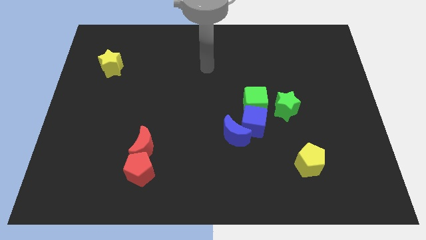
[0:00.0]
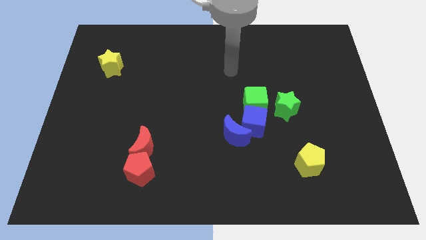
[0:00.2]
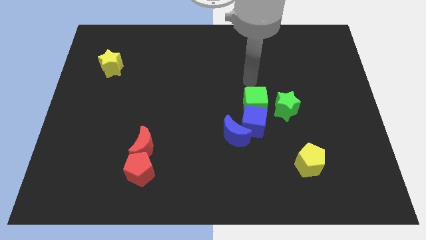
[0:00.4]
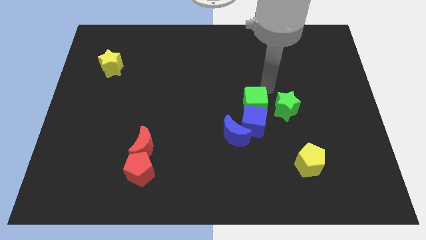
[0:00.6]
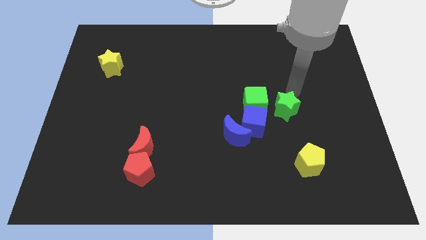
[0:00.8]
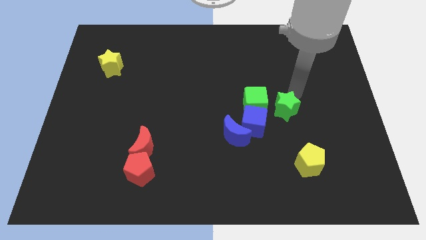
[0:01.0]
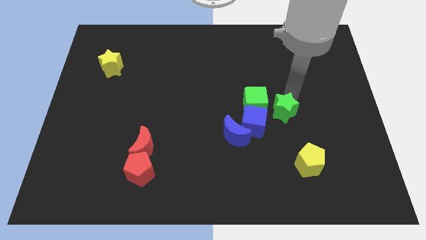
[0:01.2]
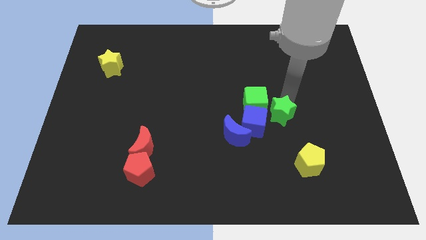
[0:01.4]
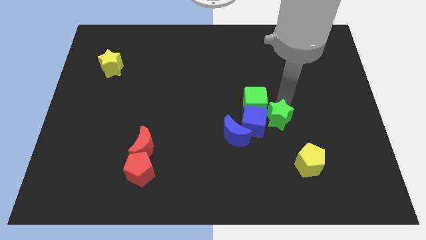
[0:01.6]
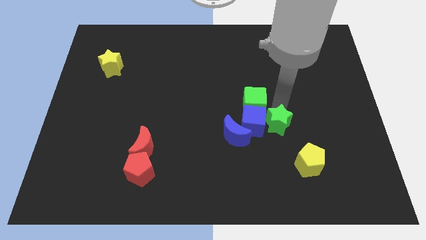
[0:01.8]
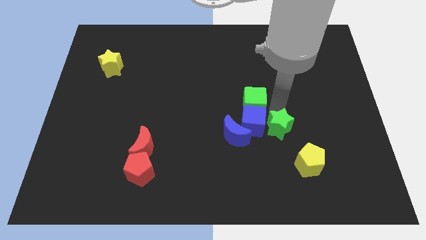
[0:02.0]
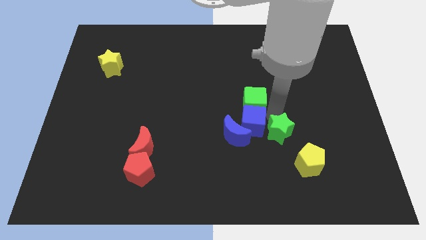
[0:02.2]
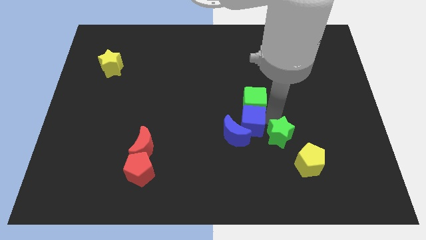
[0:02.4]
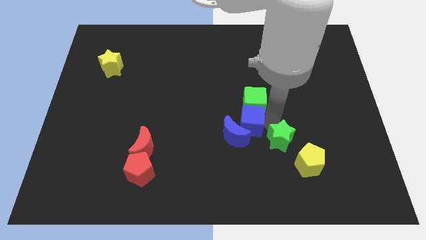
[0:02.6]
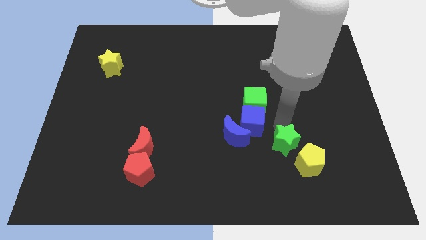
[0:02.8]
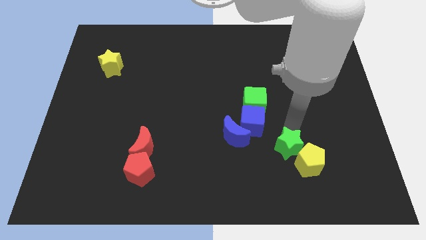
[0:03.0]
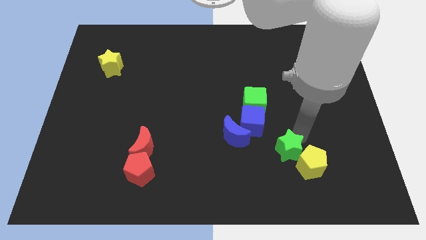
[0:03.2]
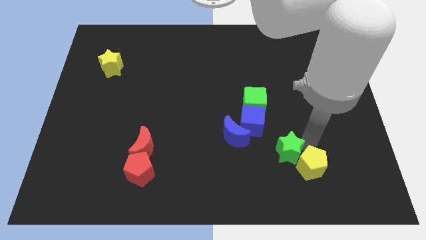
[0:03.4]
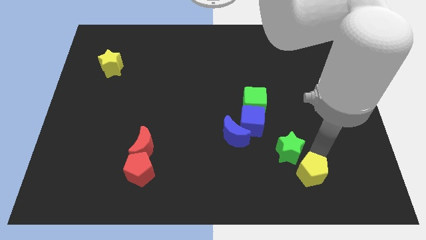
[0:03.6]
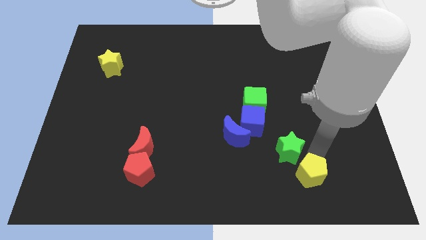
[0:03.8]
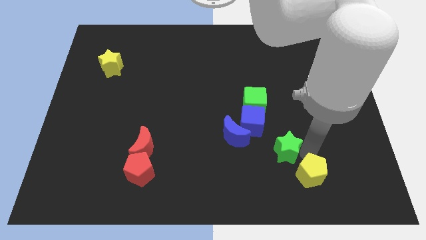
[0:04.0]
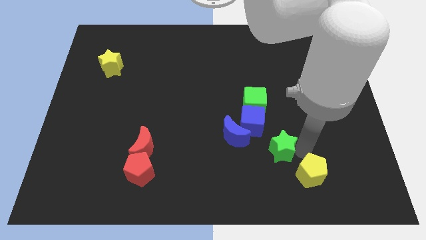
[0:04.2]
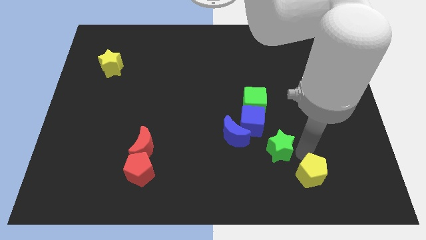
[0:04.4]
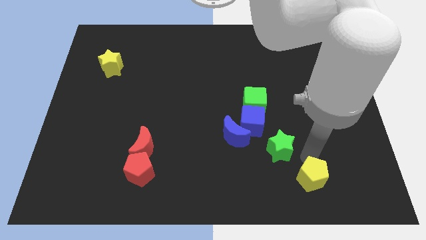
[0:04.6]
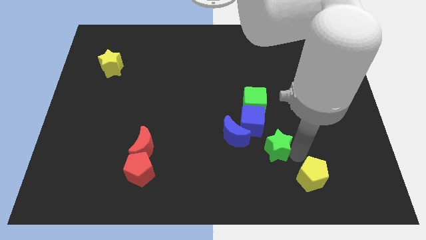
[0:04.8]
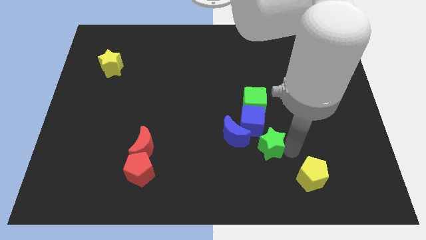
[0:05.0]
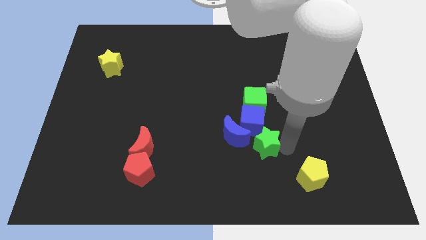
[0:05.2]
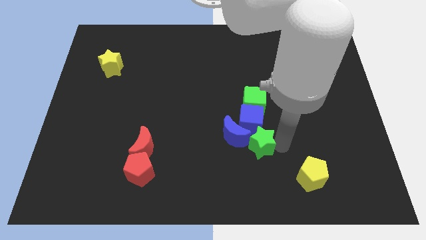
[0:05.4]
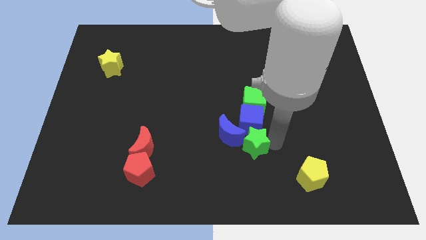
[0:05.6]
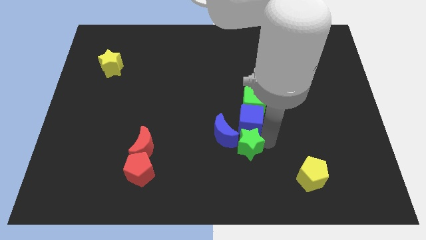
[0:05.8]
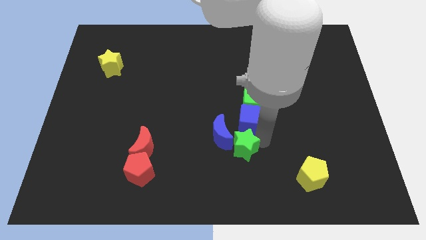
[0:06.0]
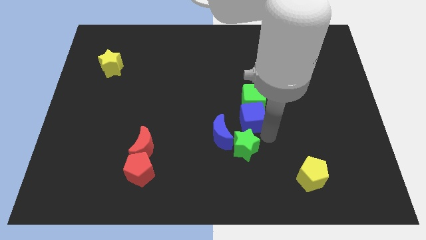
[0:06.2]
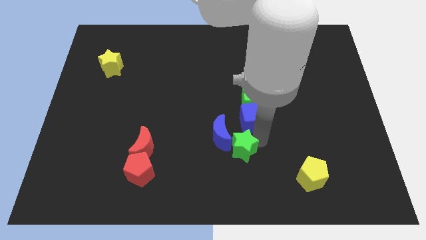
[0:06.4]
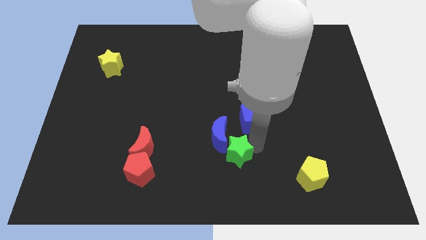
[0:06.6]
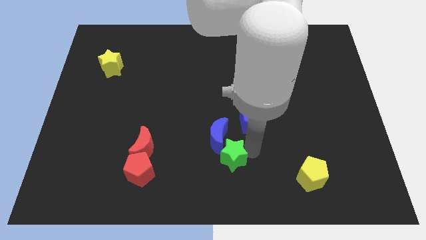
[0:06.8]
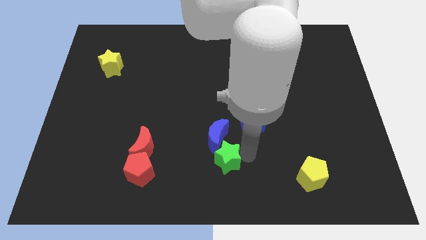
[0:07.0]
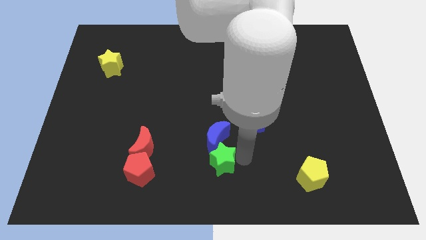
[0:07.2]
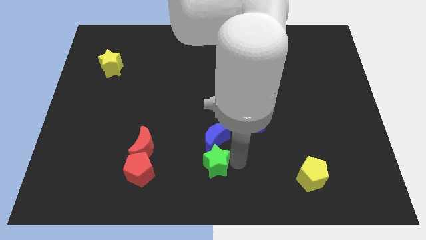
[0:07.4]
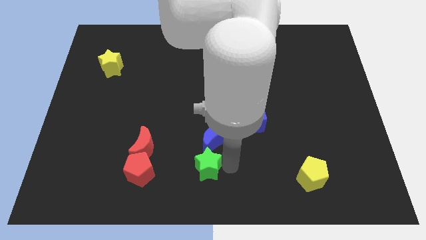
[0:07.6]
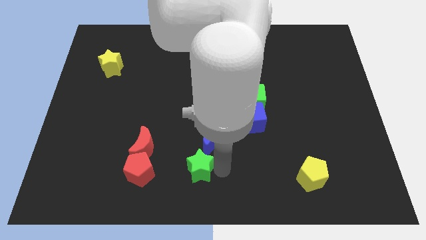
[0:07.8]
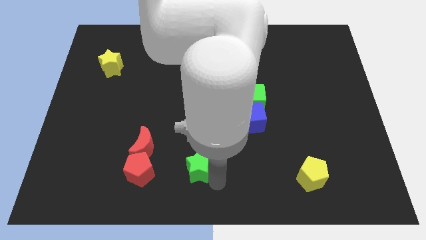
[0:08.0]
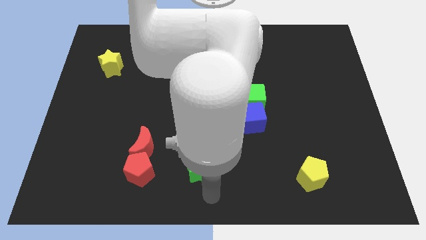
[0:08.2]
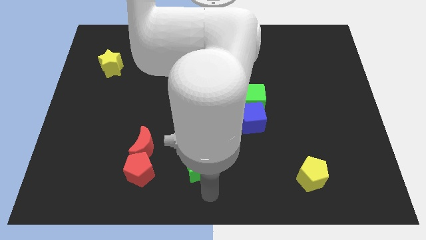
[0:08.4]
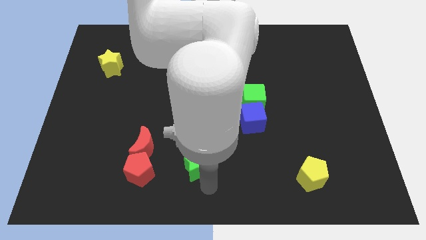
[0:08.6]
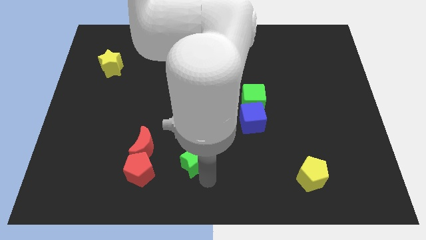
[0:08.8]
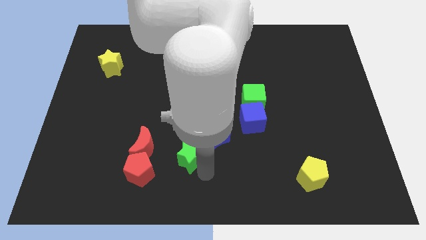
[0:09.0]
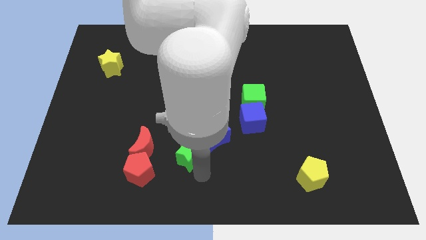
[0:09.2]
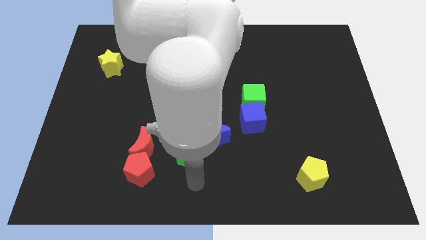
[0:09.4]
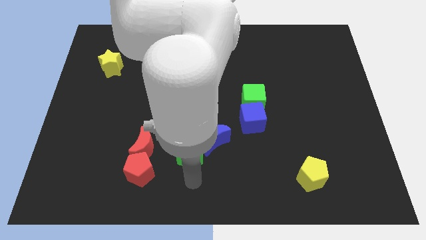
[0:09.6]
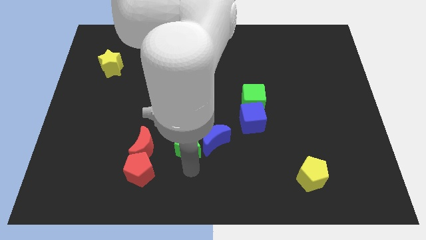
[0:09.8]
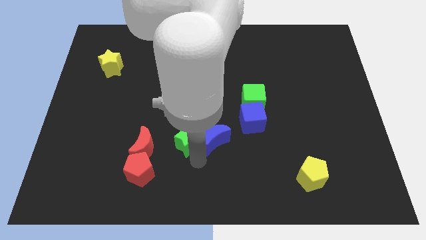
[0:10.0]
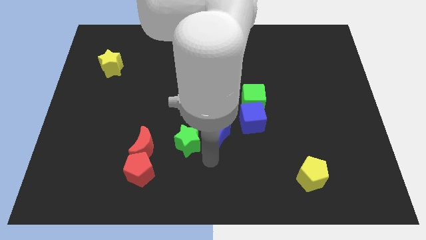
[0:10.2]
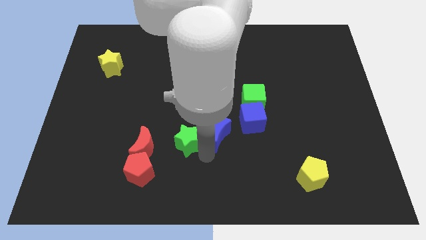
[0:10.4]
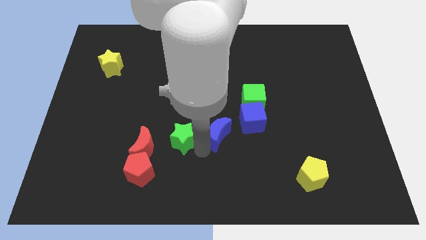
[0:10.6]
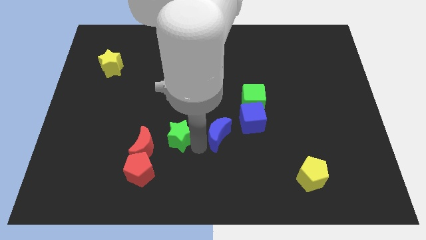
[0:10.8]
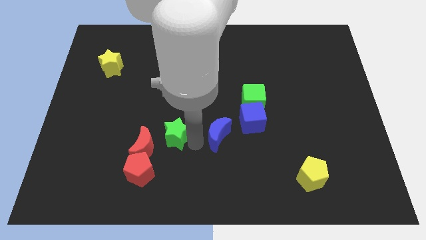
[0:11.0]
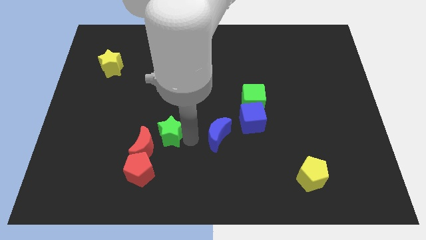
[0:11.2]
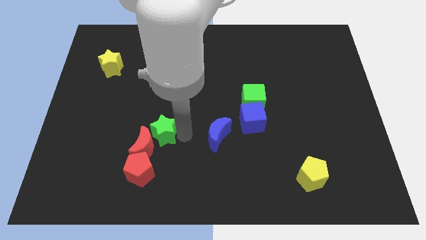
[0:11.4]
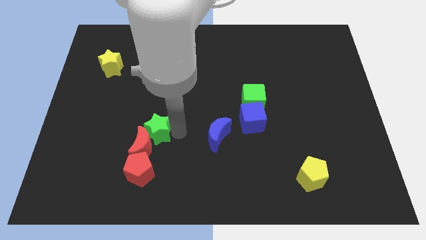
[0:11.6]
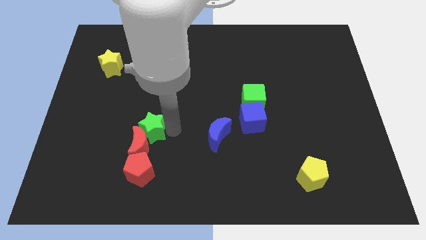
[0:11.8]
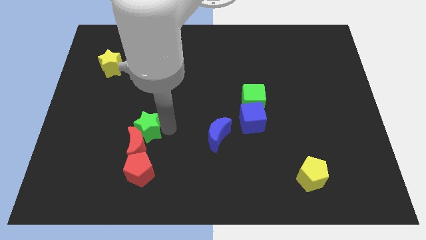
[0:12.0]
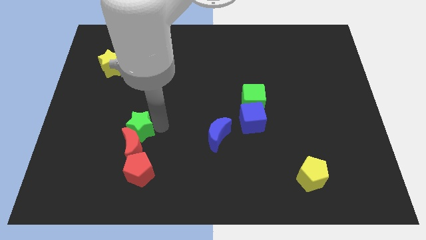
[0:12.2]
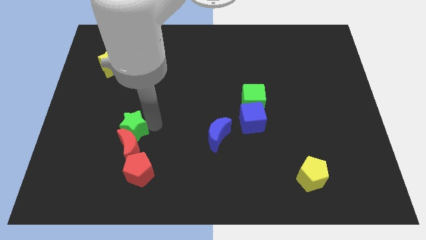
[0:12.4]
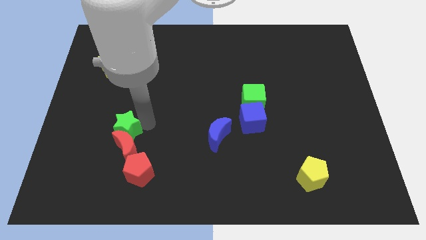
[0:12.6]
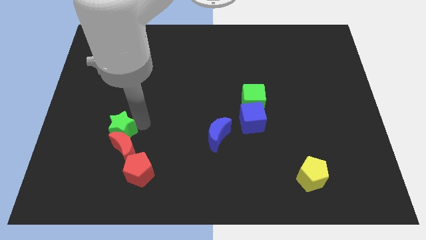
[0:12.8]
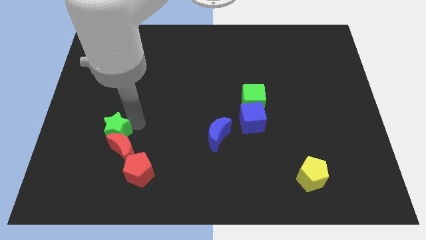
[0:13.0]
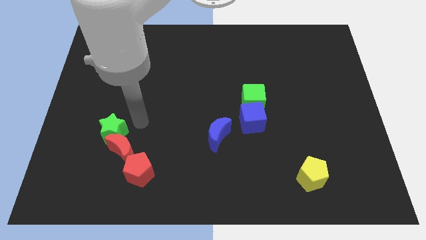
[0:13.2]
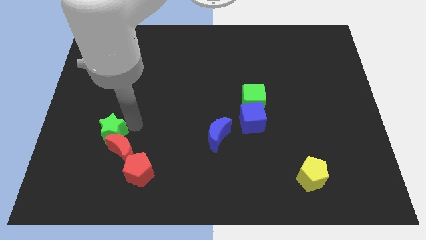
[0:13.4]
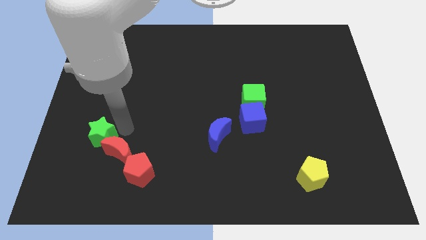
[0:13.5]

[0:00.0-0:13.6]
put the green star just left of the red moon

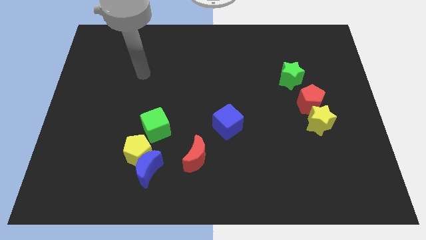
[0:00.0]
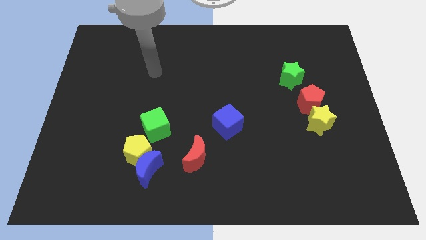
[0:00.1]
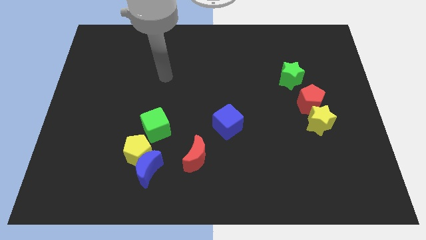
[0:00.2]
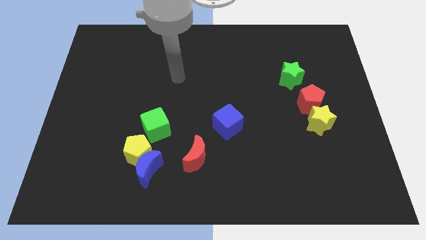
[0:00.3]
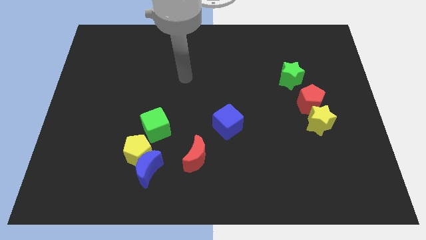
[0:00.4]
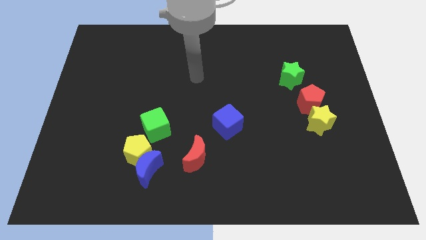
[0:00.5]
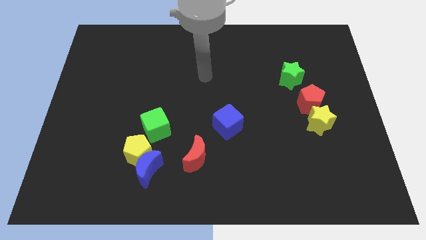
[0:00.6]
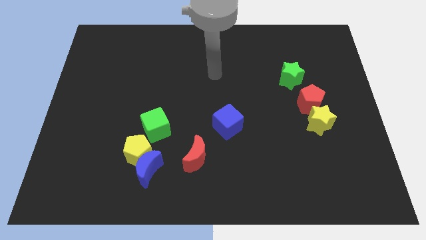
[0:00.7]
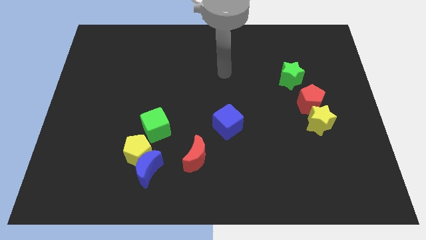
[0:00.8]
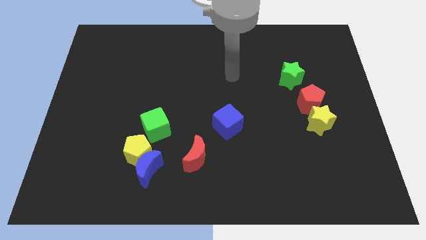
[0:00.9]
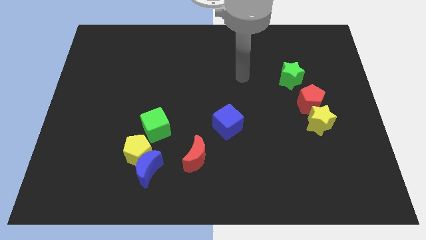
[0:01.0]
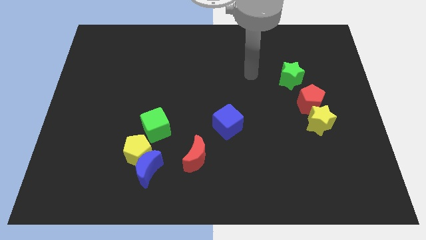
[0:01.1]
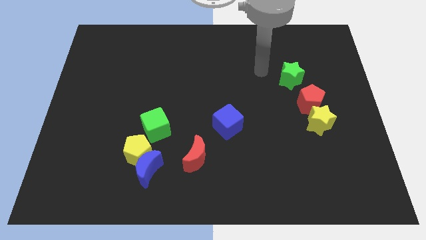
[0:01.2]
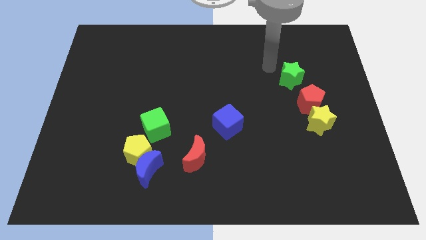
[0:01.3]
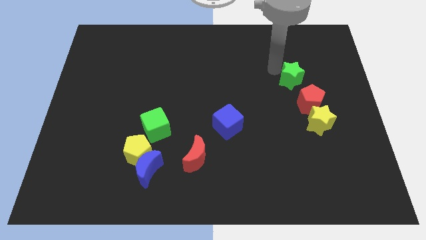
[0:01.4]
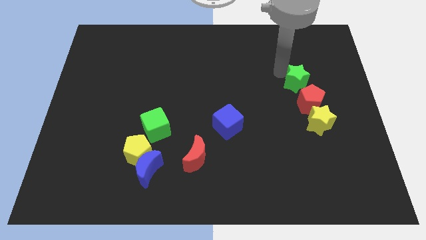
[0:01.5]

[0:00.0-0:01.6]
put the green star above the yellow star

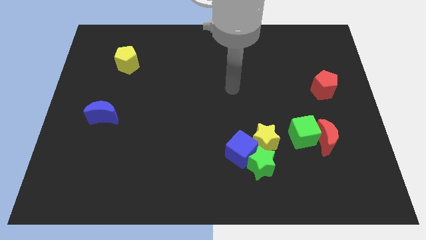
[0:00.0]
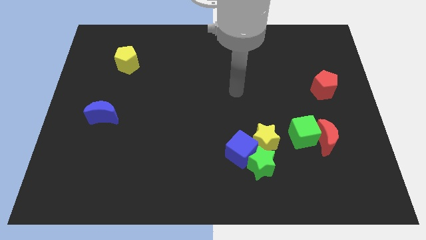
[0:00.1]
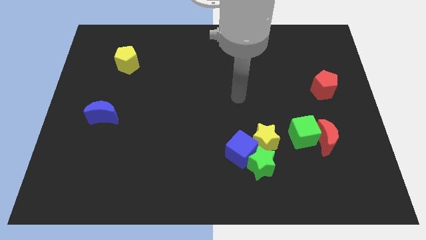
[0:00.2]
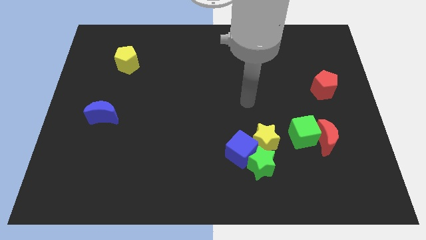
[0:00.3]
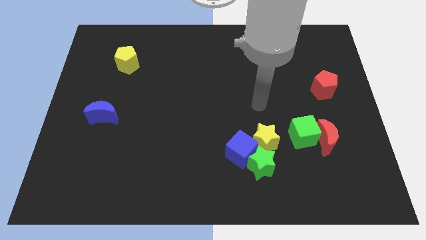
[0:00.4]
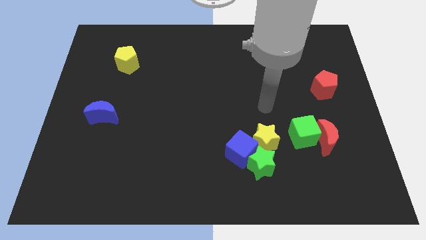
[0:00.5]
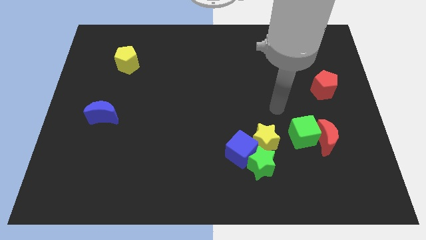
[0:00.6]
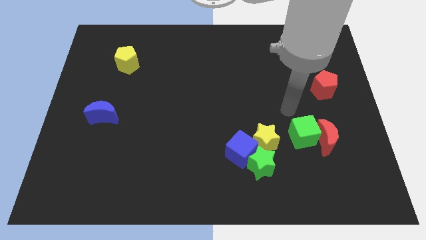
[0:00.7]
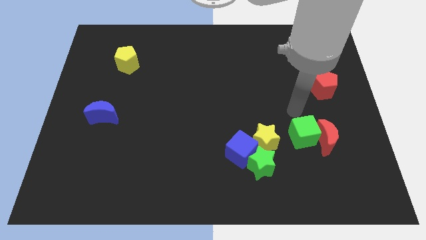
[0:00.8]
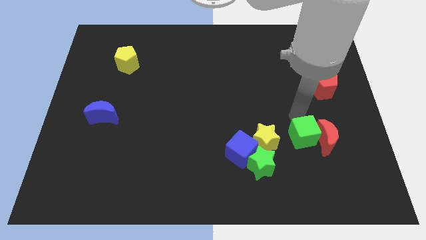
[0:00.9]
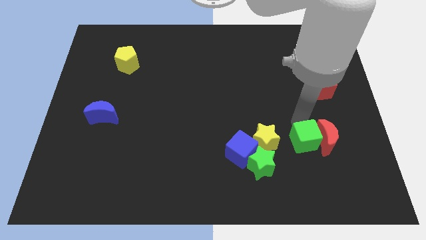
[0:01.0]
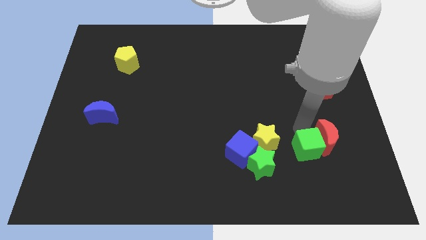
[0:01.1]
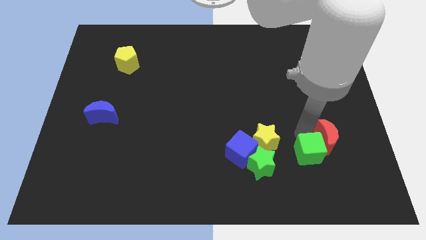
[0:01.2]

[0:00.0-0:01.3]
push the green cube to the bottom of the red moon
